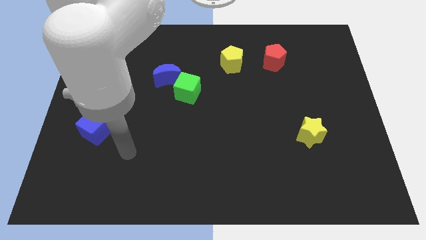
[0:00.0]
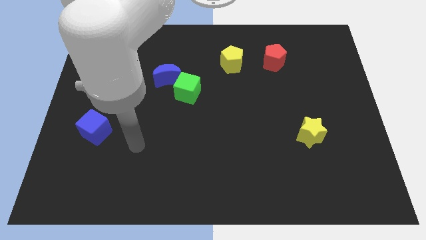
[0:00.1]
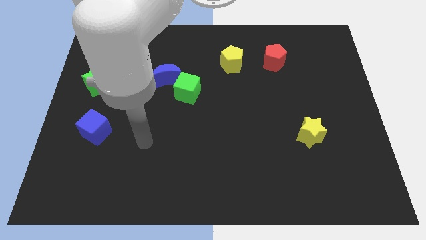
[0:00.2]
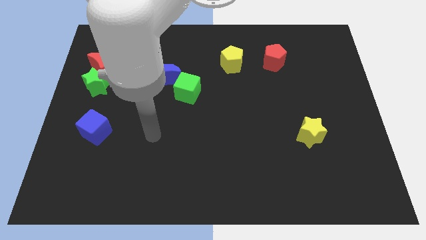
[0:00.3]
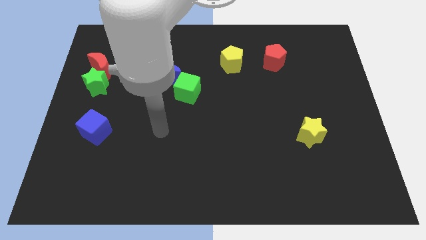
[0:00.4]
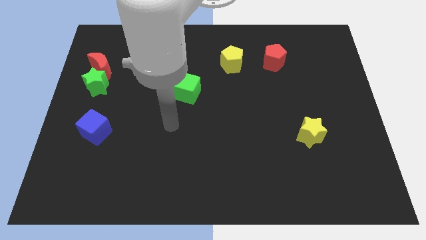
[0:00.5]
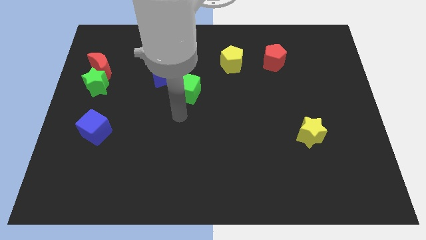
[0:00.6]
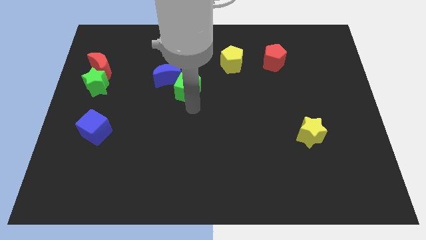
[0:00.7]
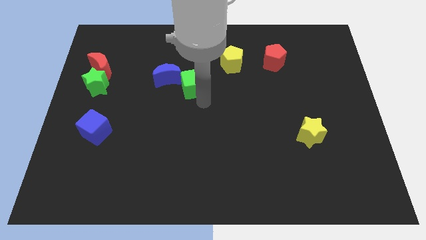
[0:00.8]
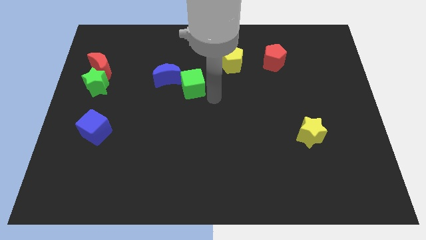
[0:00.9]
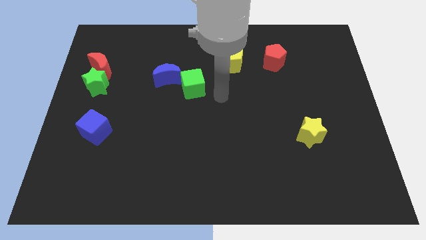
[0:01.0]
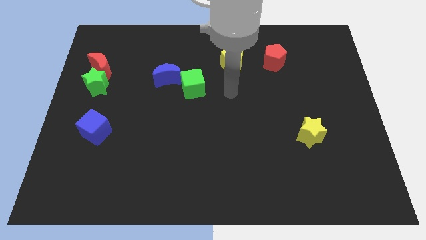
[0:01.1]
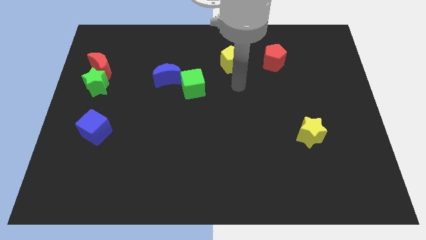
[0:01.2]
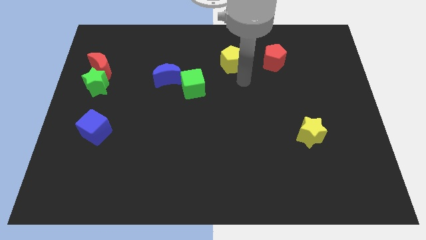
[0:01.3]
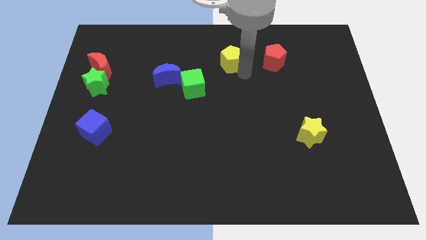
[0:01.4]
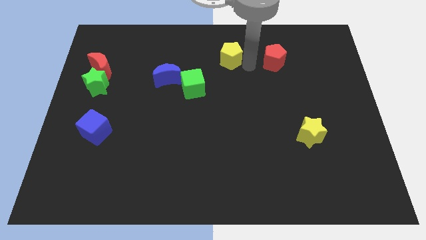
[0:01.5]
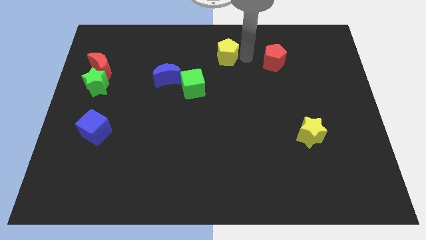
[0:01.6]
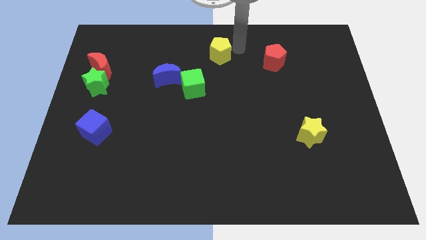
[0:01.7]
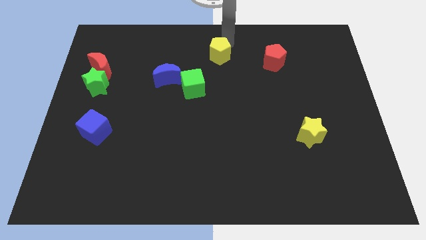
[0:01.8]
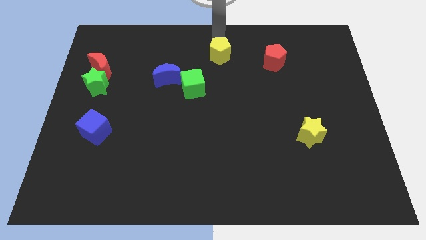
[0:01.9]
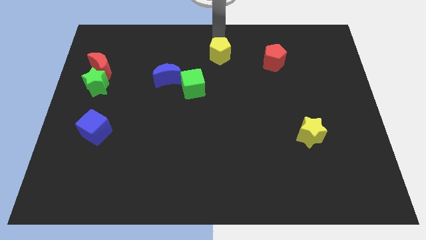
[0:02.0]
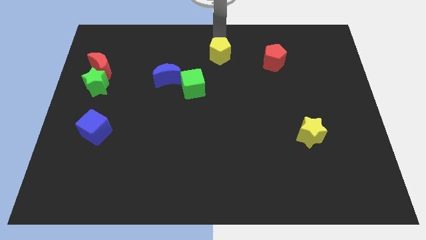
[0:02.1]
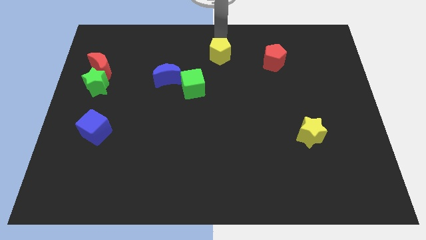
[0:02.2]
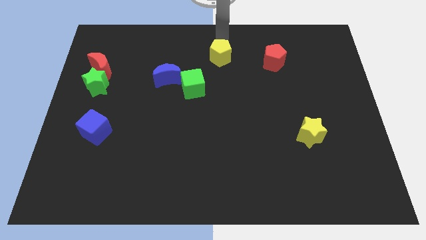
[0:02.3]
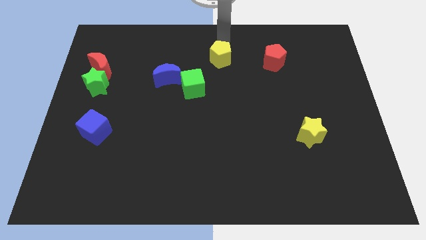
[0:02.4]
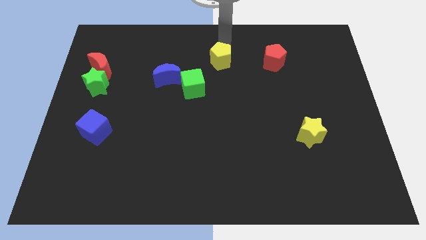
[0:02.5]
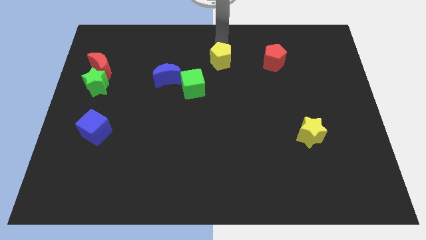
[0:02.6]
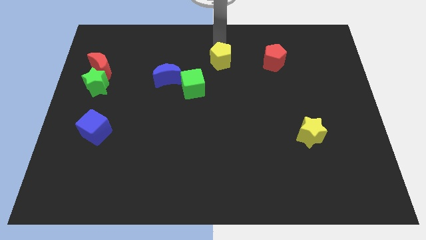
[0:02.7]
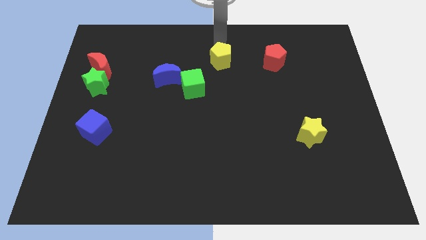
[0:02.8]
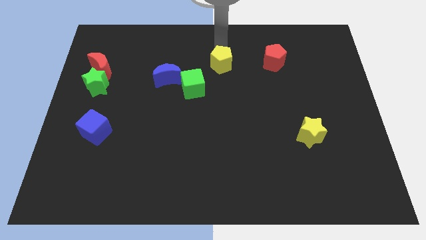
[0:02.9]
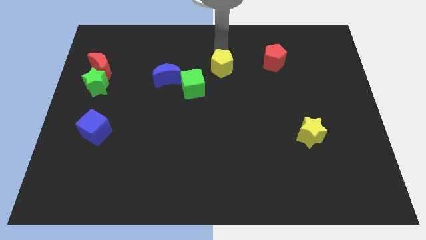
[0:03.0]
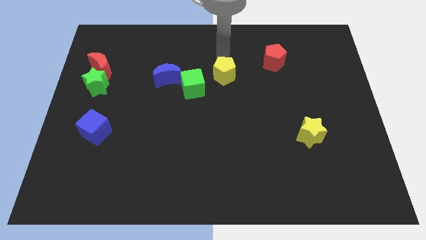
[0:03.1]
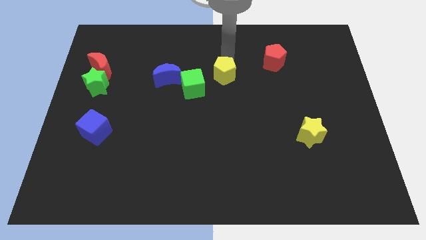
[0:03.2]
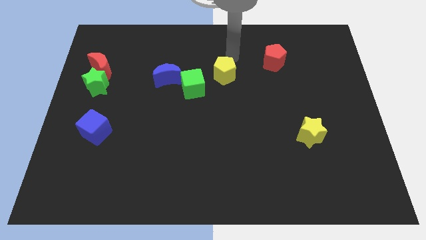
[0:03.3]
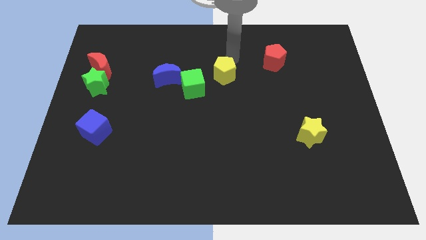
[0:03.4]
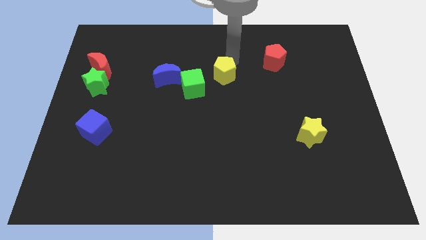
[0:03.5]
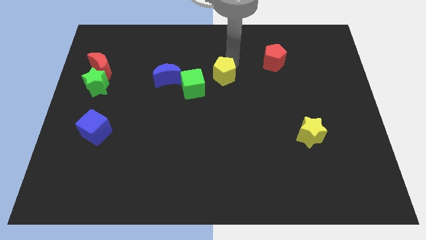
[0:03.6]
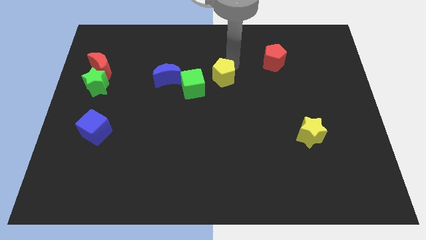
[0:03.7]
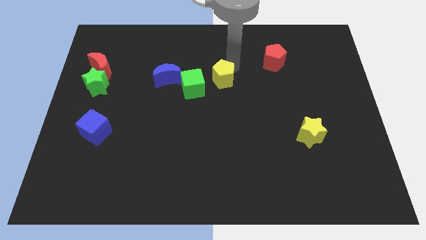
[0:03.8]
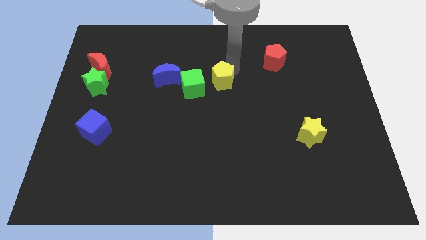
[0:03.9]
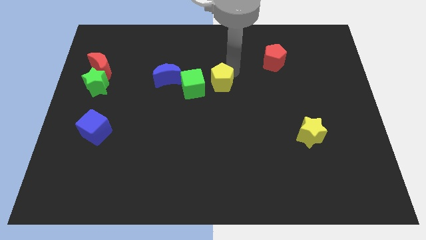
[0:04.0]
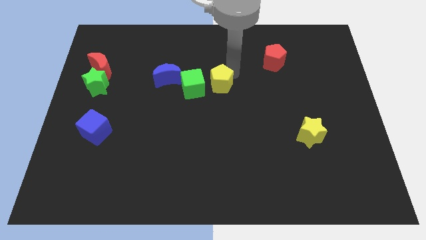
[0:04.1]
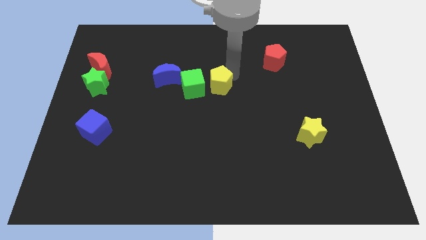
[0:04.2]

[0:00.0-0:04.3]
slide the yellow pentagon slightly down and then left

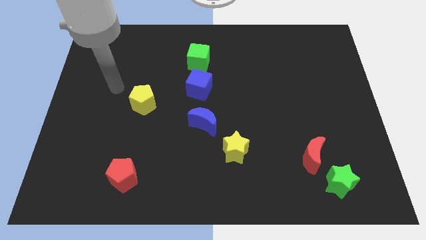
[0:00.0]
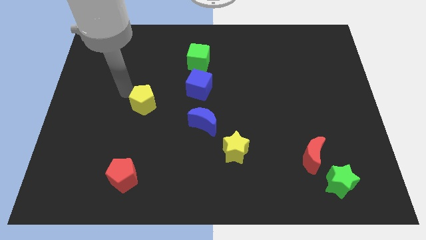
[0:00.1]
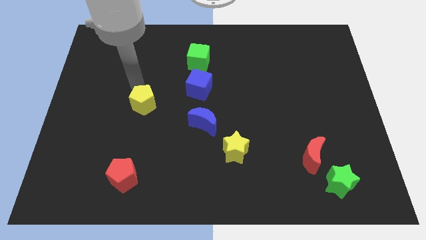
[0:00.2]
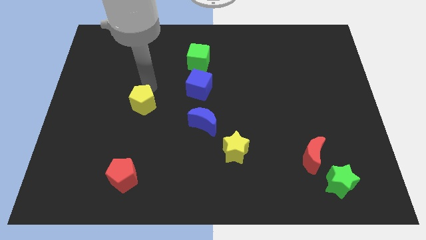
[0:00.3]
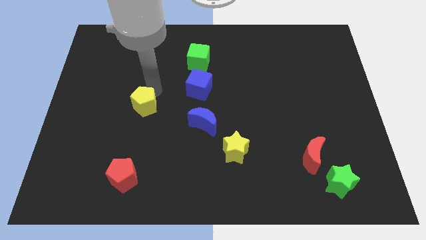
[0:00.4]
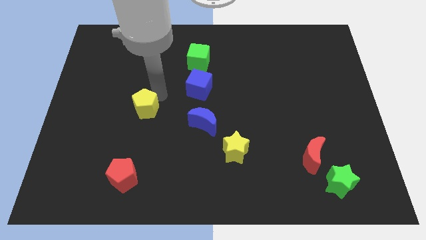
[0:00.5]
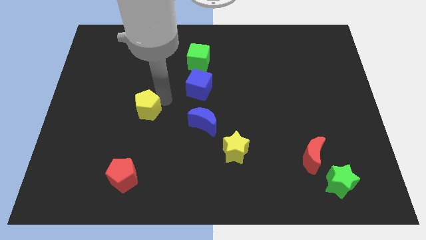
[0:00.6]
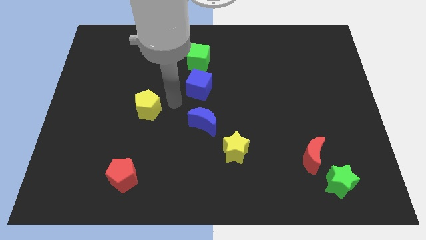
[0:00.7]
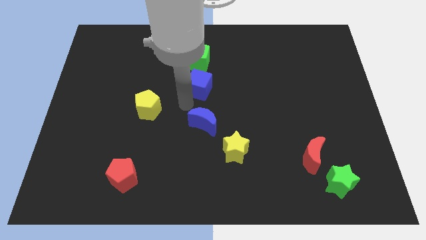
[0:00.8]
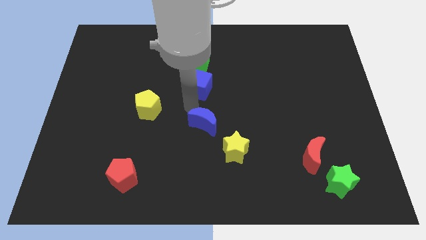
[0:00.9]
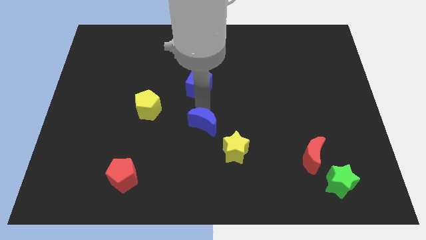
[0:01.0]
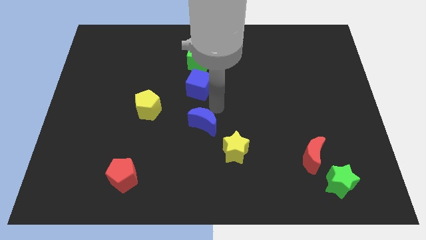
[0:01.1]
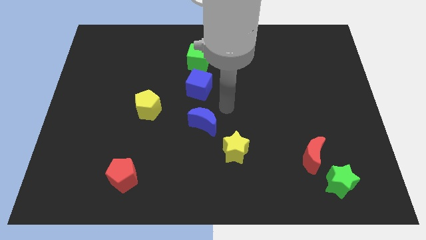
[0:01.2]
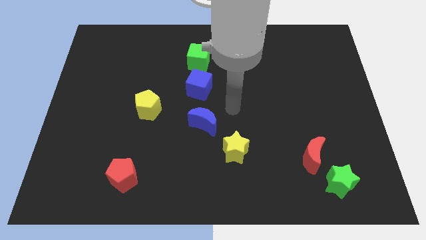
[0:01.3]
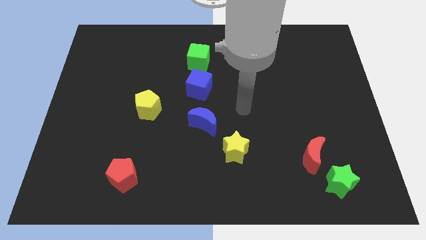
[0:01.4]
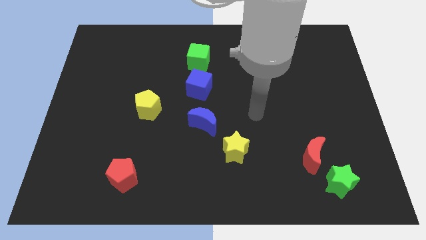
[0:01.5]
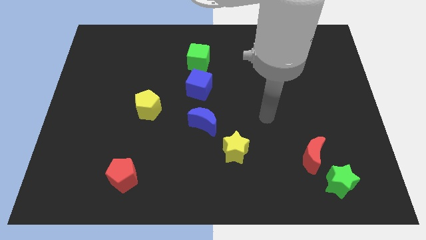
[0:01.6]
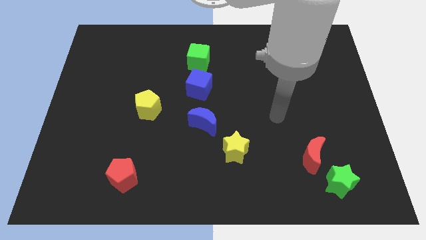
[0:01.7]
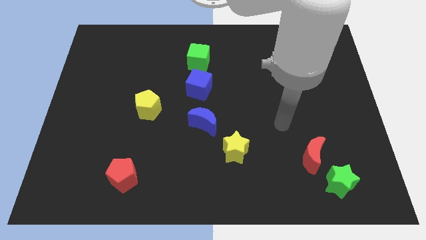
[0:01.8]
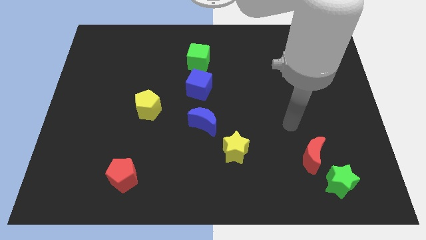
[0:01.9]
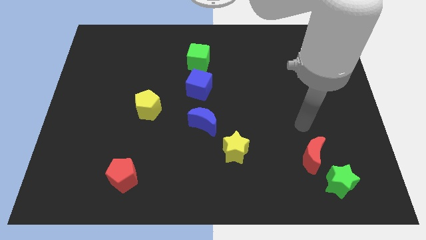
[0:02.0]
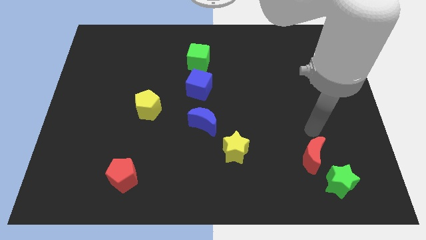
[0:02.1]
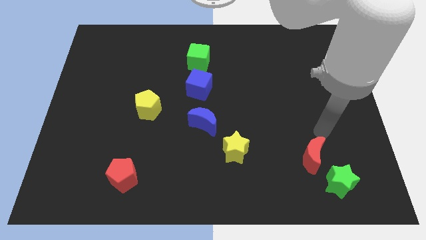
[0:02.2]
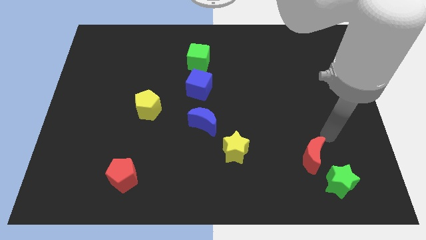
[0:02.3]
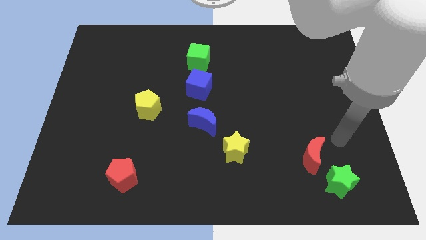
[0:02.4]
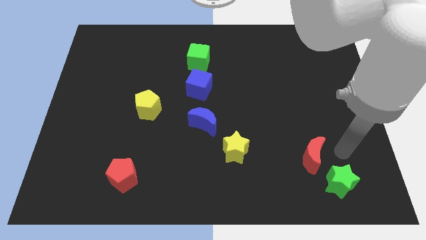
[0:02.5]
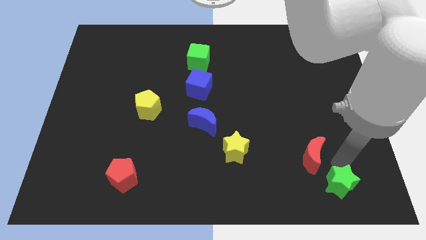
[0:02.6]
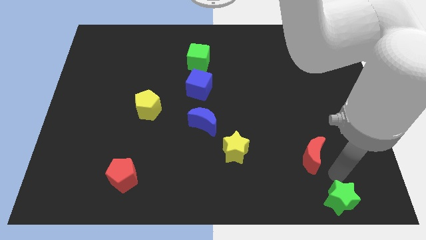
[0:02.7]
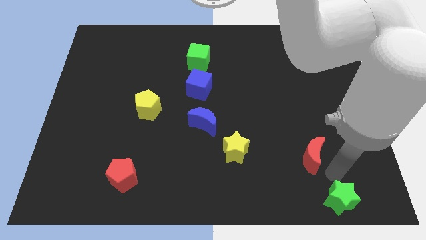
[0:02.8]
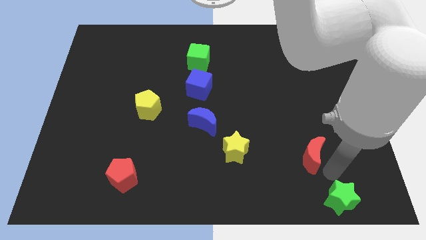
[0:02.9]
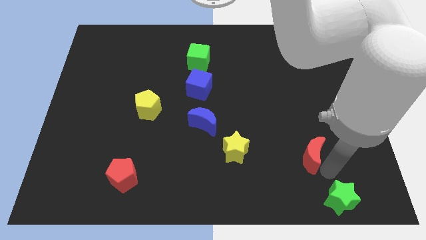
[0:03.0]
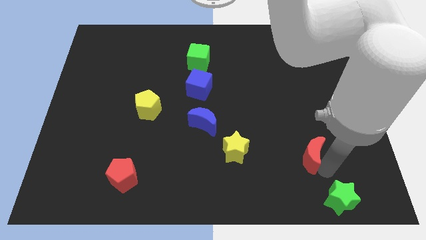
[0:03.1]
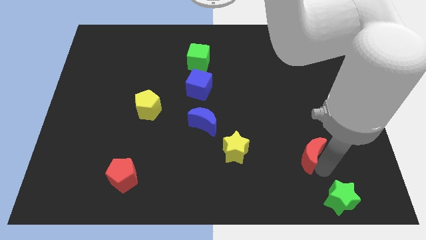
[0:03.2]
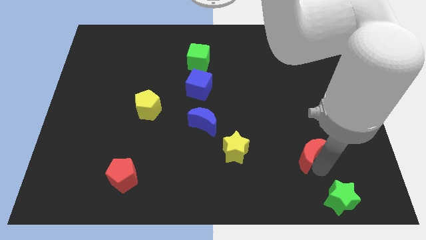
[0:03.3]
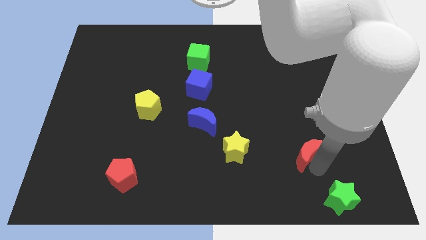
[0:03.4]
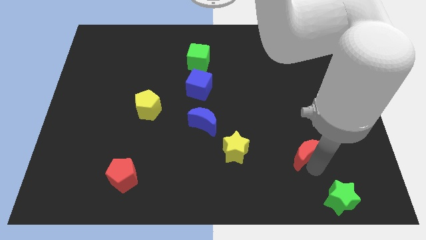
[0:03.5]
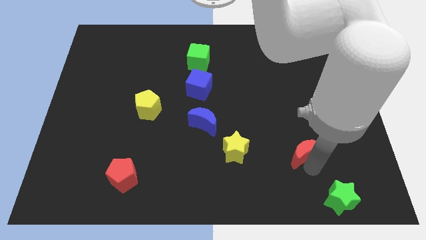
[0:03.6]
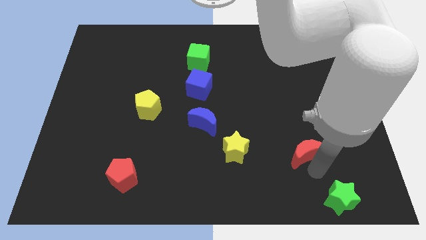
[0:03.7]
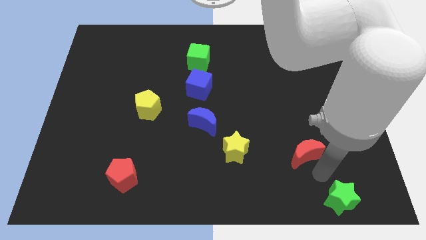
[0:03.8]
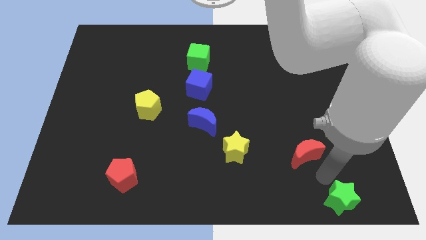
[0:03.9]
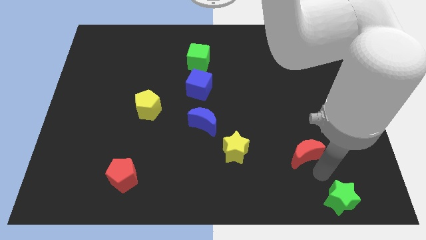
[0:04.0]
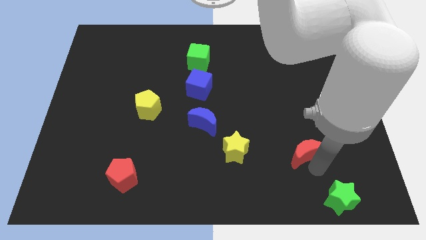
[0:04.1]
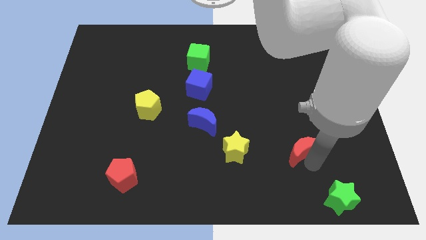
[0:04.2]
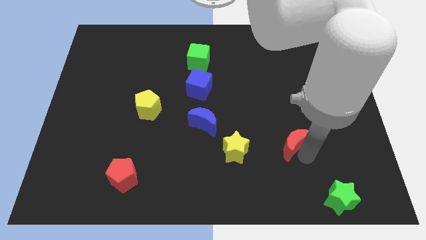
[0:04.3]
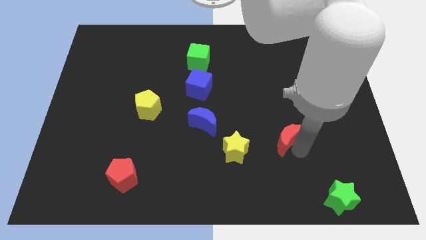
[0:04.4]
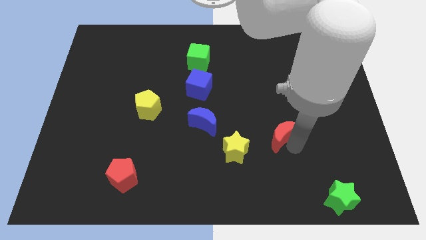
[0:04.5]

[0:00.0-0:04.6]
push the red moon upwards and then to the left a bit
